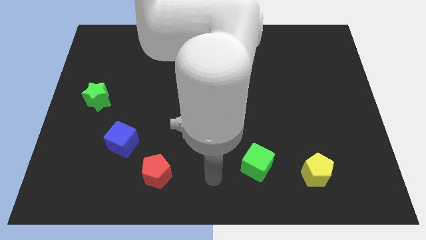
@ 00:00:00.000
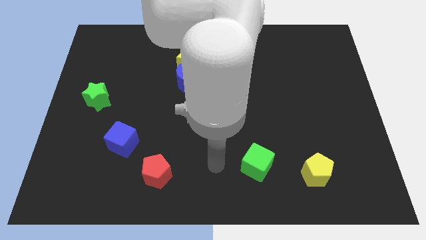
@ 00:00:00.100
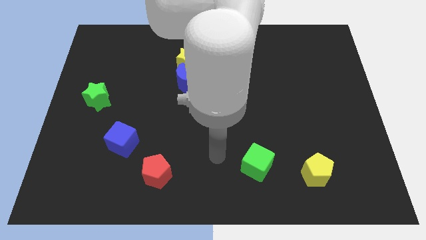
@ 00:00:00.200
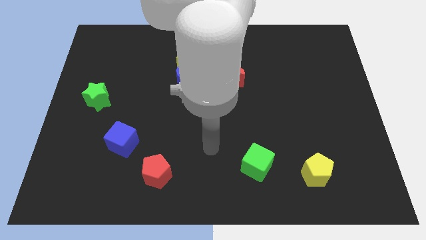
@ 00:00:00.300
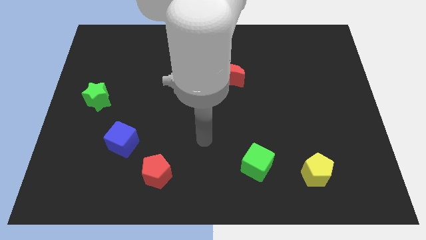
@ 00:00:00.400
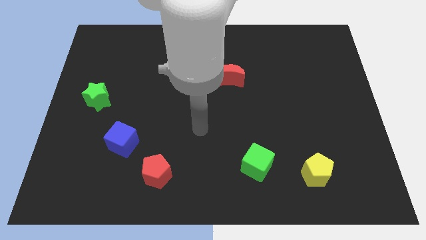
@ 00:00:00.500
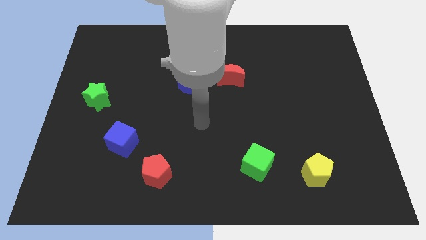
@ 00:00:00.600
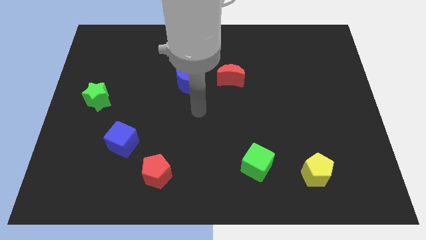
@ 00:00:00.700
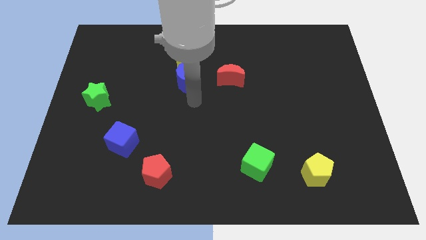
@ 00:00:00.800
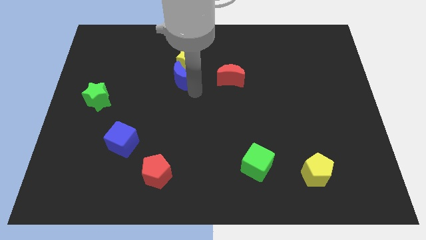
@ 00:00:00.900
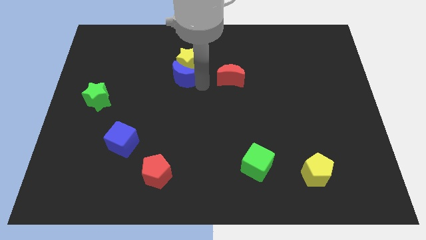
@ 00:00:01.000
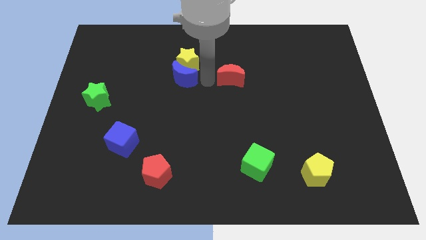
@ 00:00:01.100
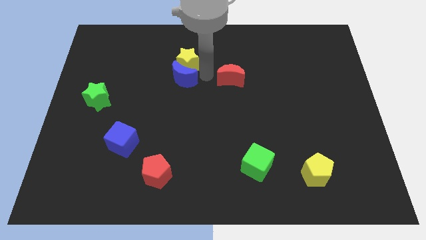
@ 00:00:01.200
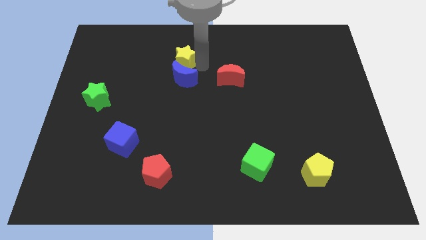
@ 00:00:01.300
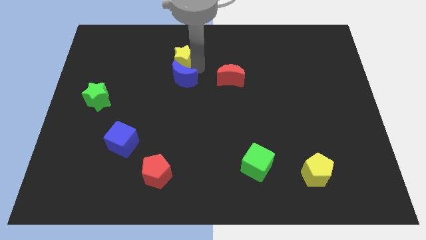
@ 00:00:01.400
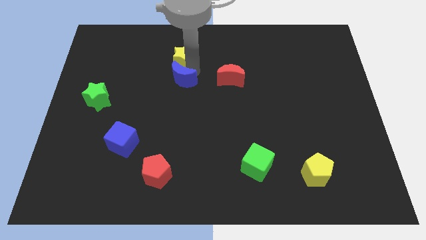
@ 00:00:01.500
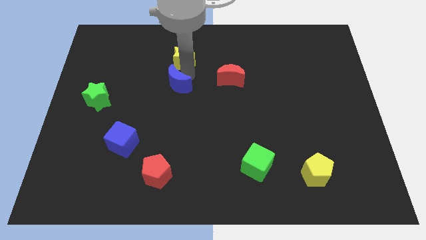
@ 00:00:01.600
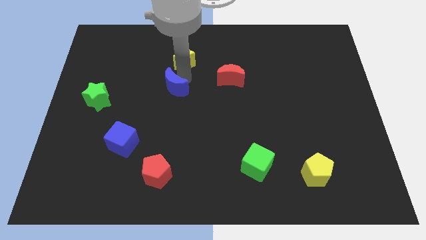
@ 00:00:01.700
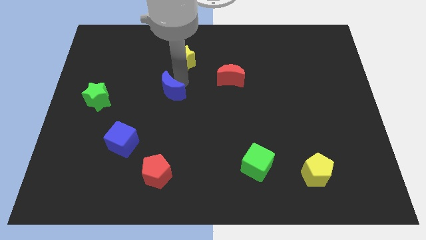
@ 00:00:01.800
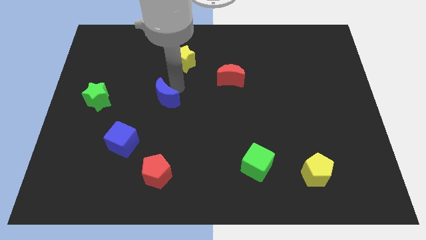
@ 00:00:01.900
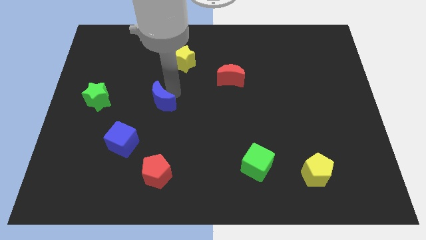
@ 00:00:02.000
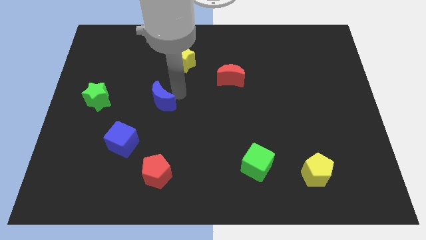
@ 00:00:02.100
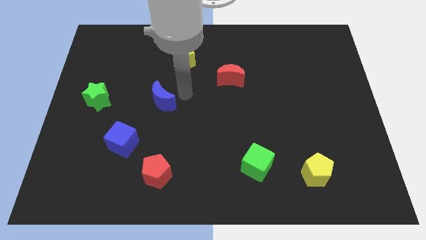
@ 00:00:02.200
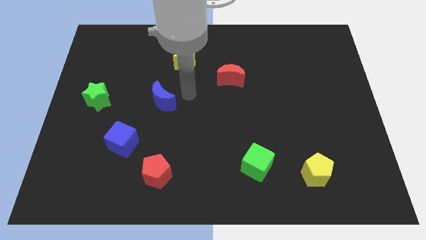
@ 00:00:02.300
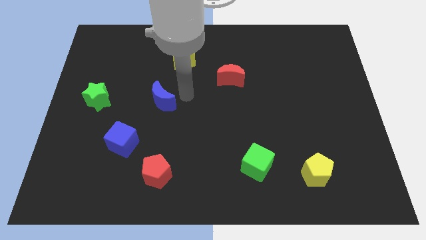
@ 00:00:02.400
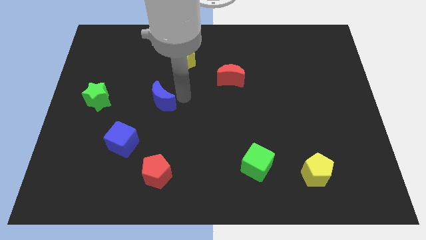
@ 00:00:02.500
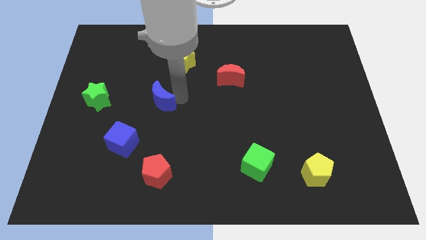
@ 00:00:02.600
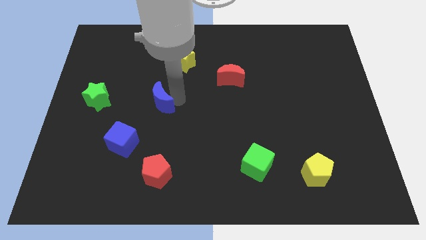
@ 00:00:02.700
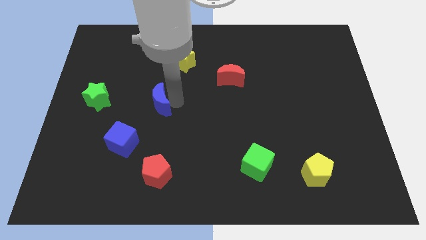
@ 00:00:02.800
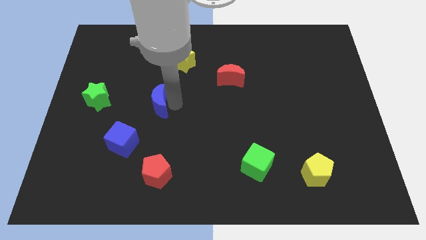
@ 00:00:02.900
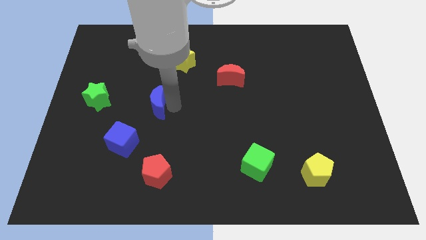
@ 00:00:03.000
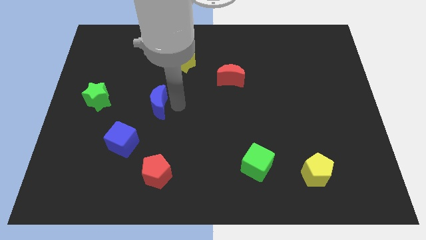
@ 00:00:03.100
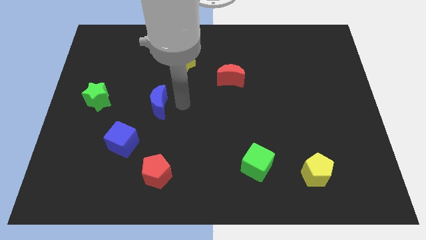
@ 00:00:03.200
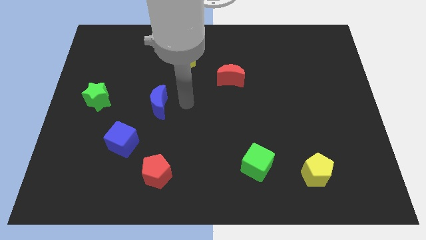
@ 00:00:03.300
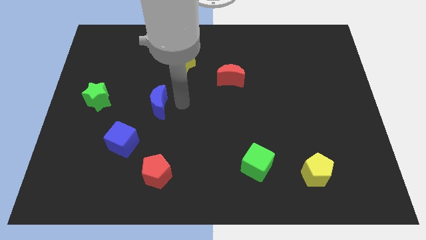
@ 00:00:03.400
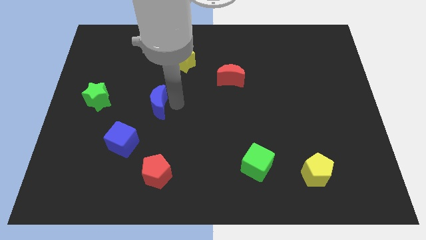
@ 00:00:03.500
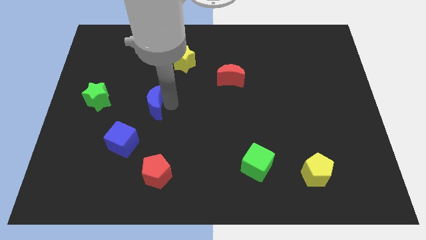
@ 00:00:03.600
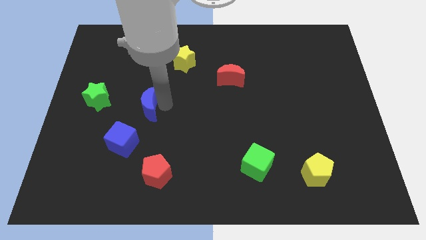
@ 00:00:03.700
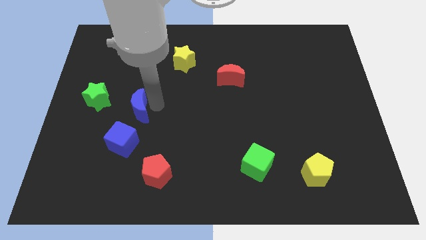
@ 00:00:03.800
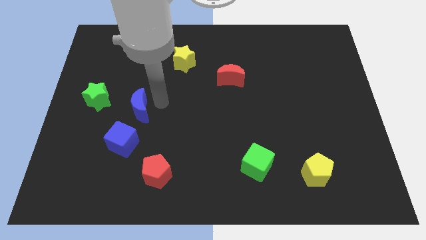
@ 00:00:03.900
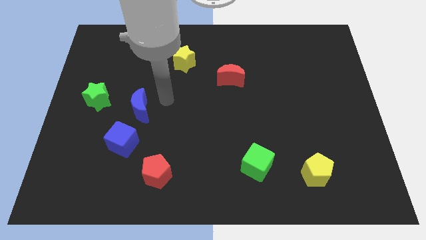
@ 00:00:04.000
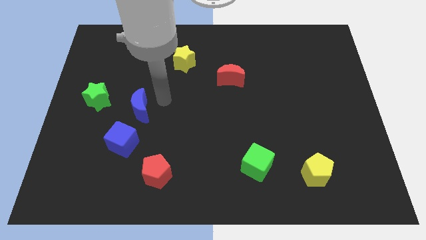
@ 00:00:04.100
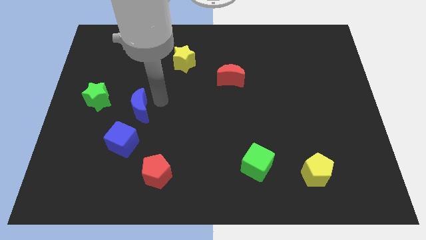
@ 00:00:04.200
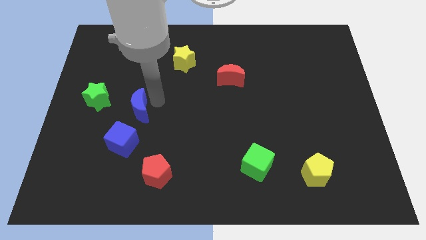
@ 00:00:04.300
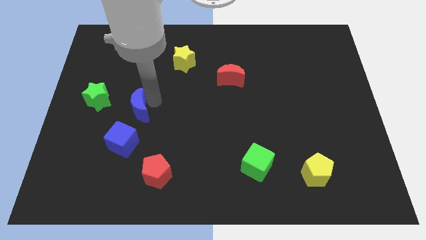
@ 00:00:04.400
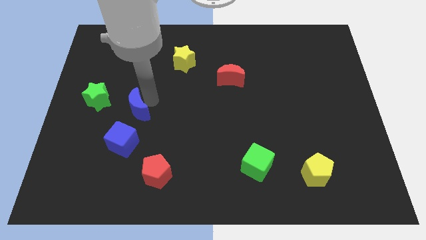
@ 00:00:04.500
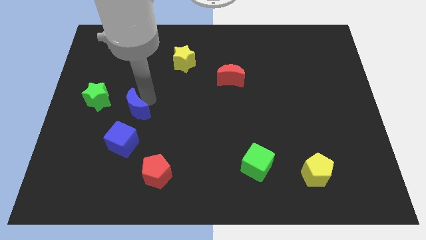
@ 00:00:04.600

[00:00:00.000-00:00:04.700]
push the blue moon diagonally down and to the right of the green star

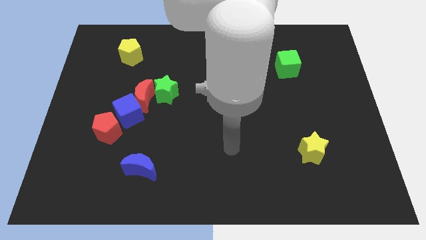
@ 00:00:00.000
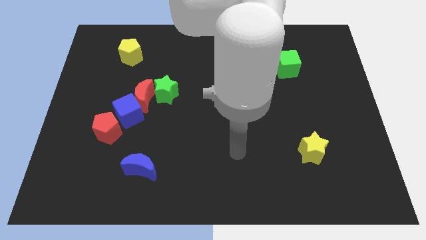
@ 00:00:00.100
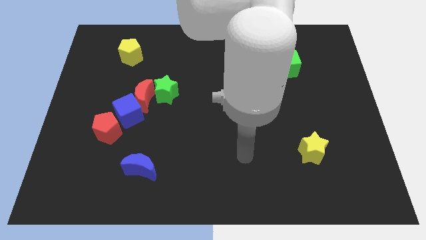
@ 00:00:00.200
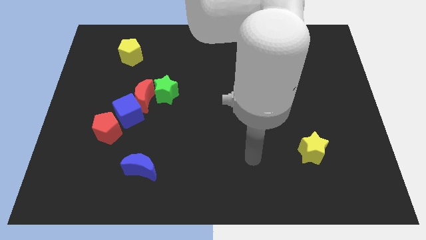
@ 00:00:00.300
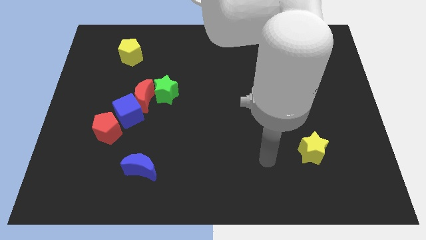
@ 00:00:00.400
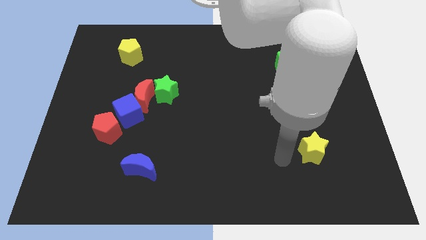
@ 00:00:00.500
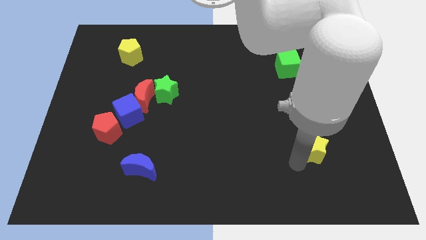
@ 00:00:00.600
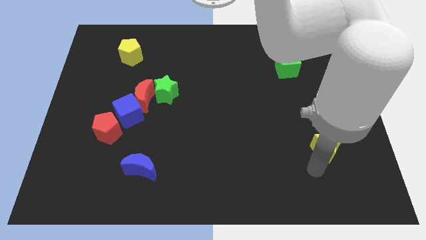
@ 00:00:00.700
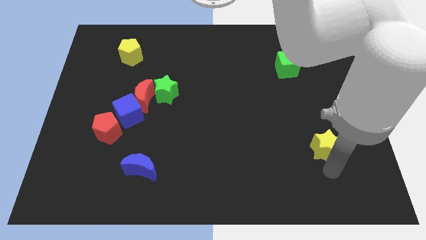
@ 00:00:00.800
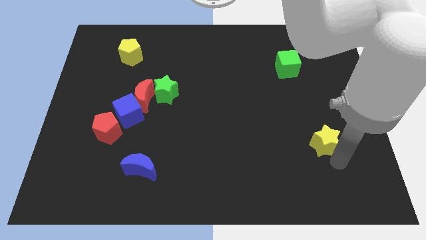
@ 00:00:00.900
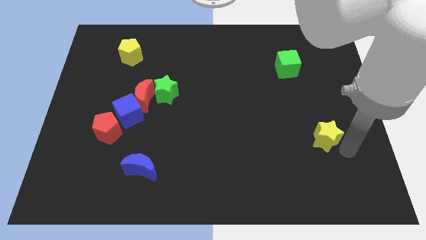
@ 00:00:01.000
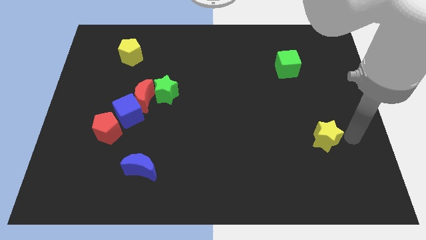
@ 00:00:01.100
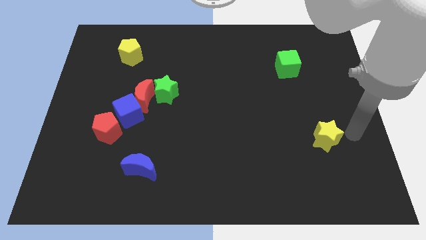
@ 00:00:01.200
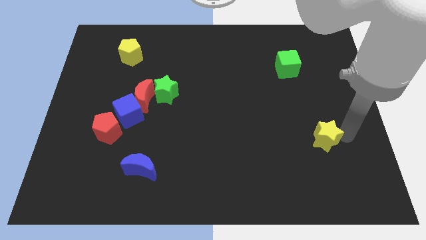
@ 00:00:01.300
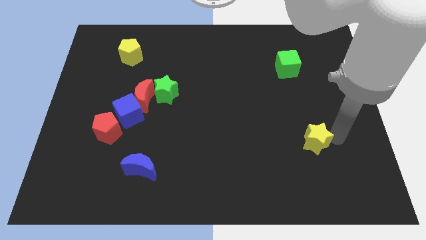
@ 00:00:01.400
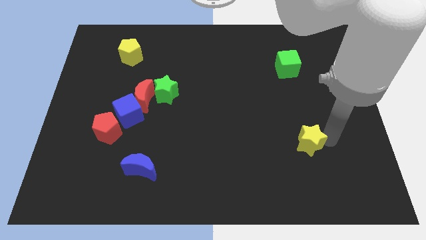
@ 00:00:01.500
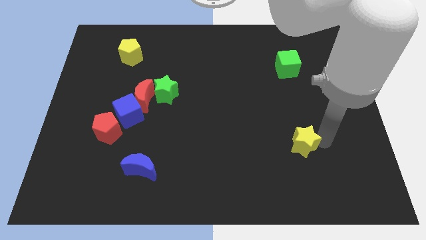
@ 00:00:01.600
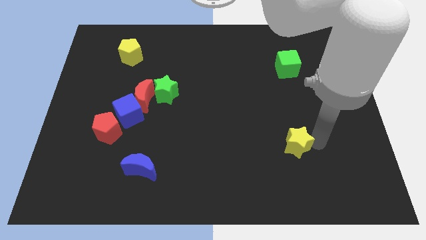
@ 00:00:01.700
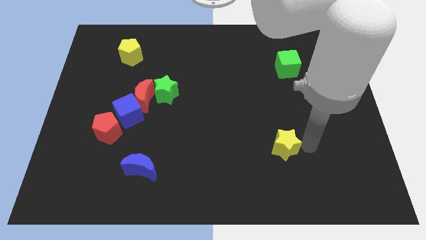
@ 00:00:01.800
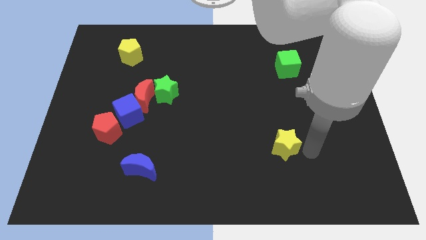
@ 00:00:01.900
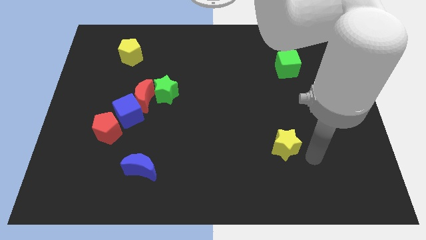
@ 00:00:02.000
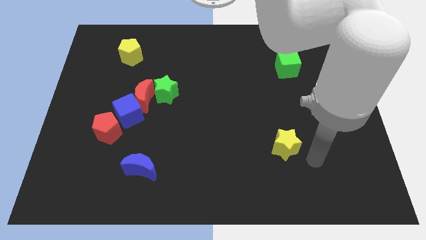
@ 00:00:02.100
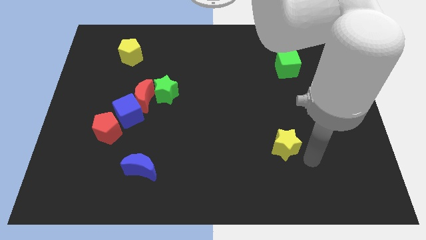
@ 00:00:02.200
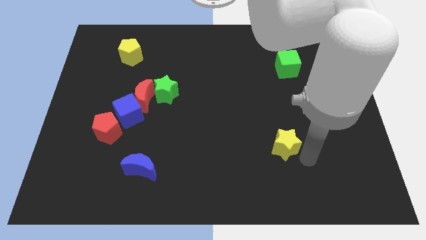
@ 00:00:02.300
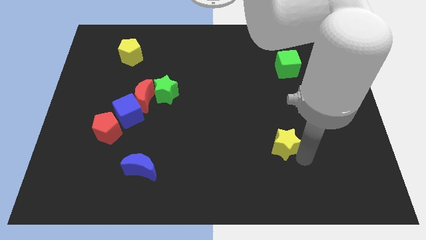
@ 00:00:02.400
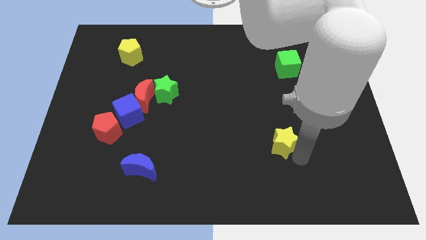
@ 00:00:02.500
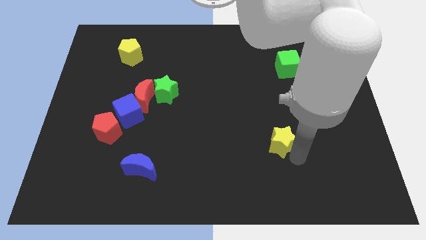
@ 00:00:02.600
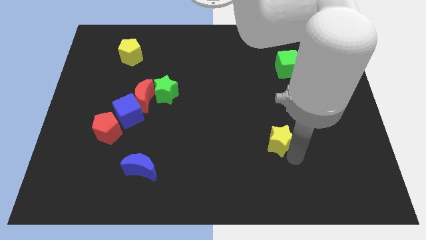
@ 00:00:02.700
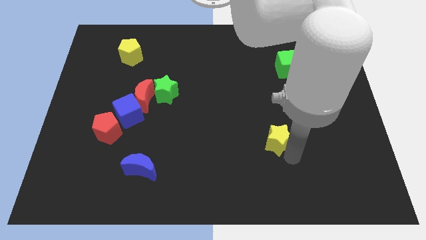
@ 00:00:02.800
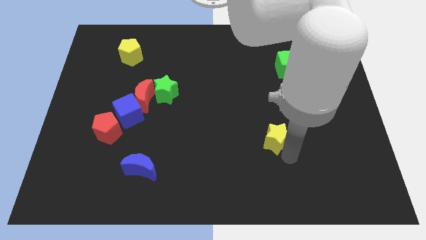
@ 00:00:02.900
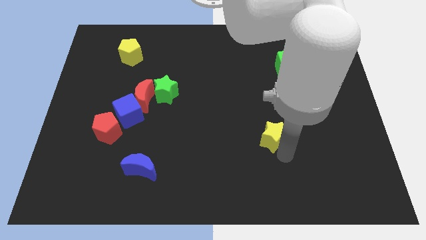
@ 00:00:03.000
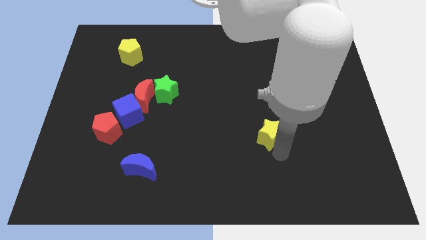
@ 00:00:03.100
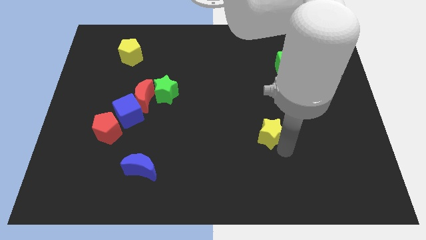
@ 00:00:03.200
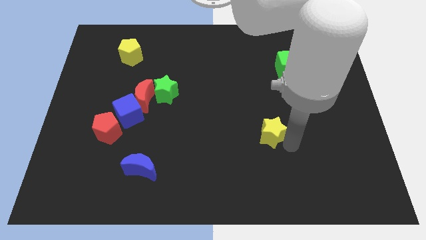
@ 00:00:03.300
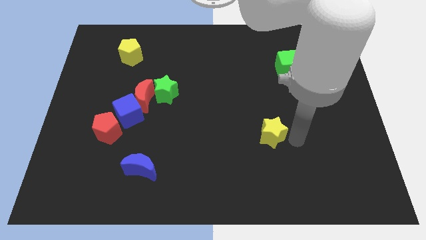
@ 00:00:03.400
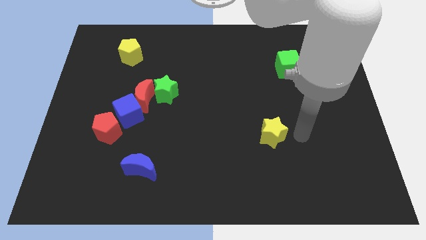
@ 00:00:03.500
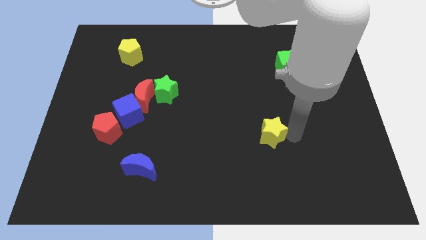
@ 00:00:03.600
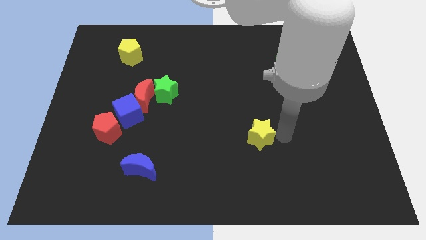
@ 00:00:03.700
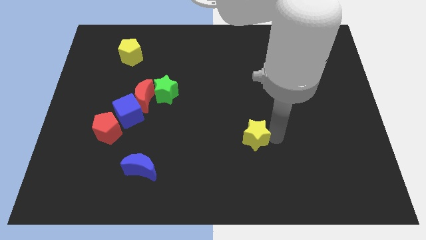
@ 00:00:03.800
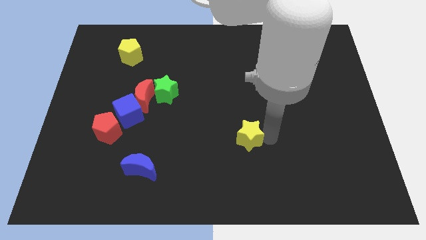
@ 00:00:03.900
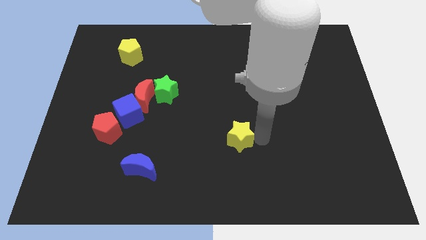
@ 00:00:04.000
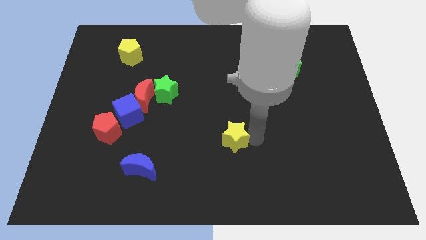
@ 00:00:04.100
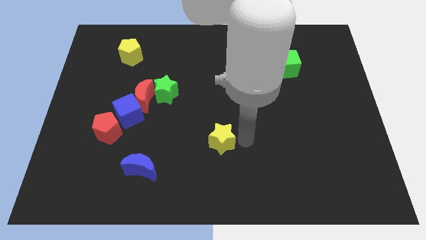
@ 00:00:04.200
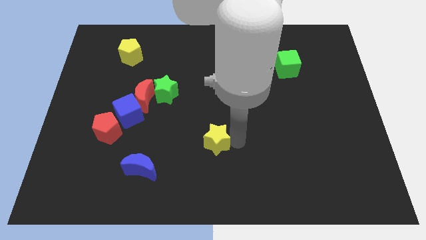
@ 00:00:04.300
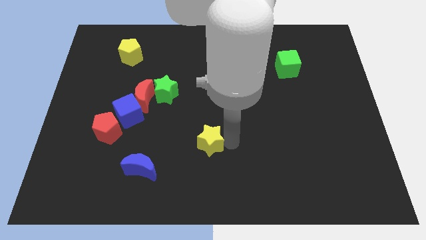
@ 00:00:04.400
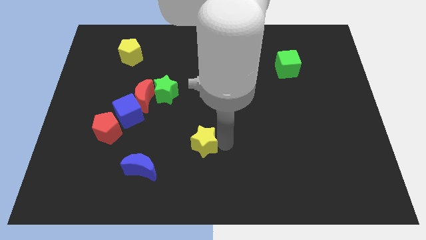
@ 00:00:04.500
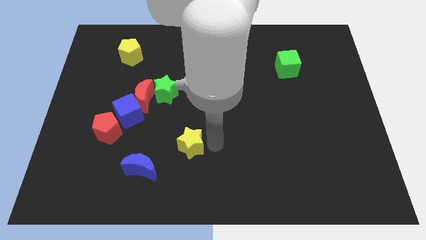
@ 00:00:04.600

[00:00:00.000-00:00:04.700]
push the yellow star to the top right side of the blue moon
